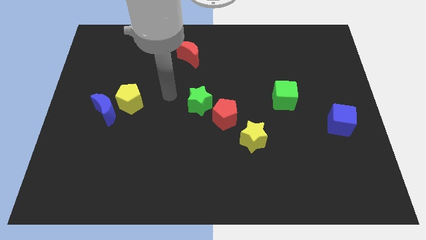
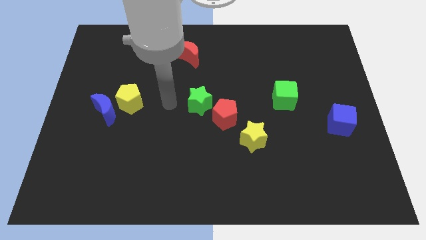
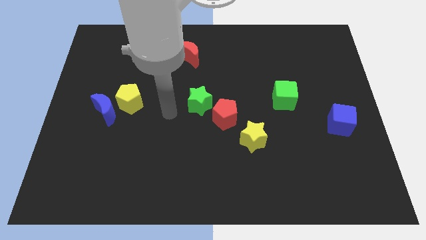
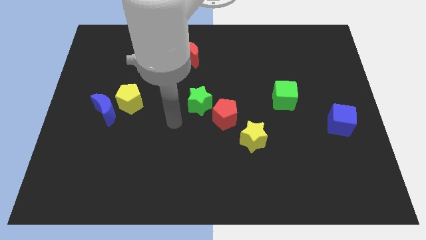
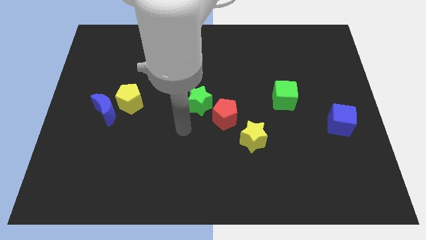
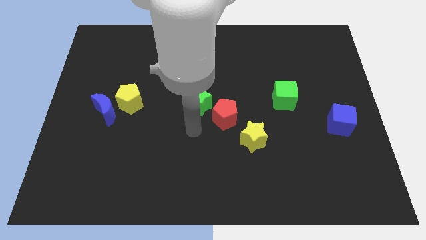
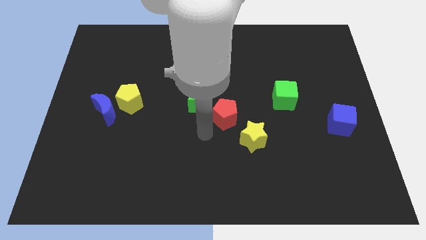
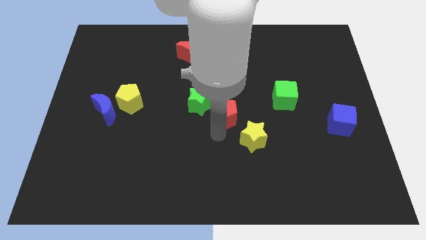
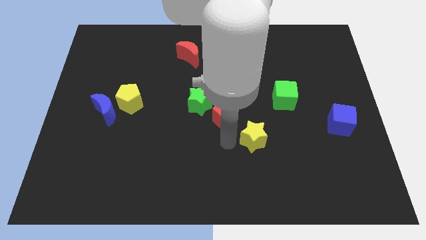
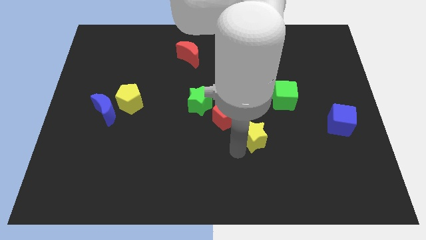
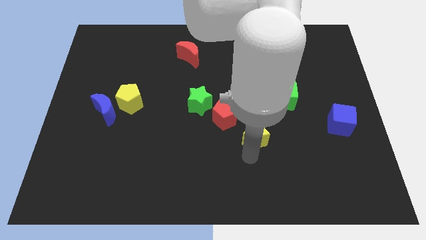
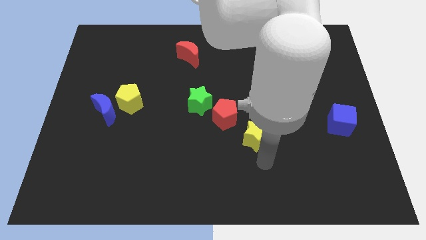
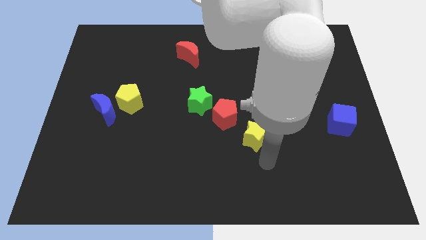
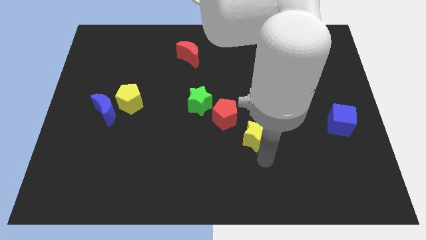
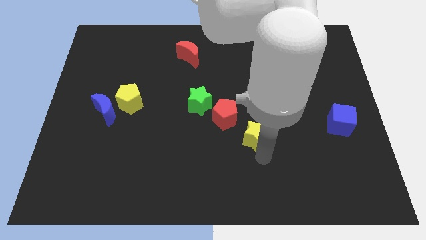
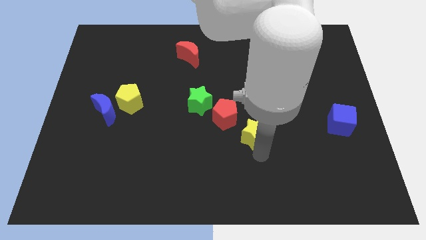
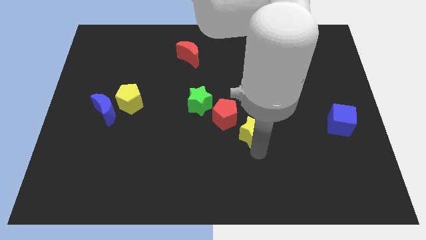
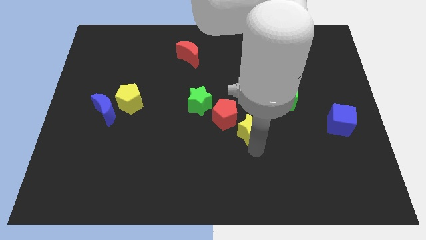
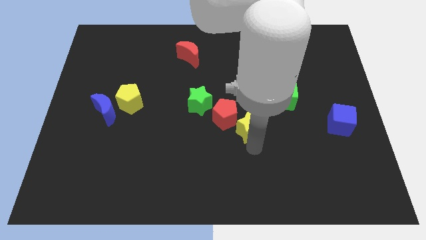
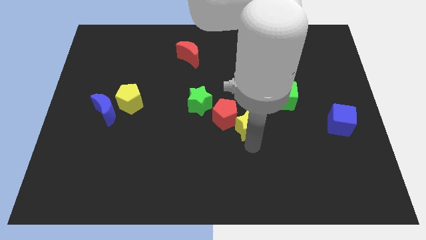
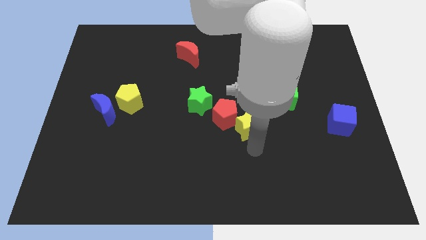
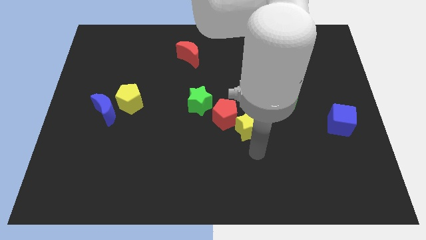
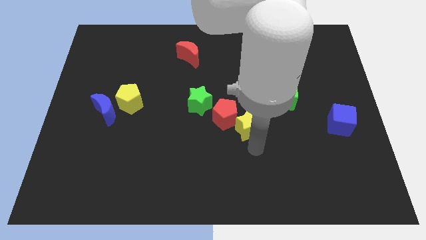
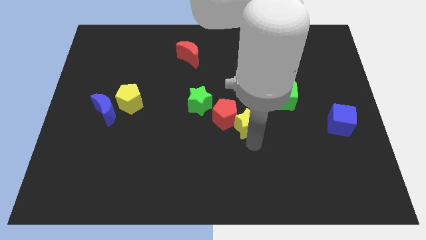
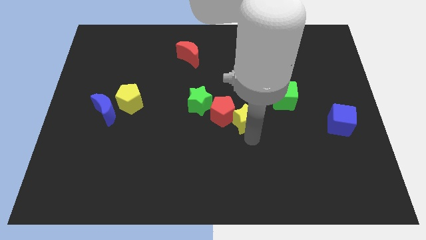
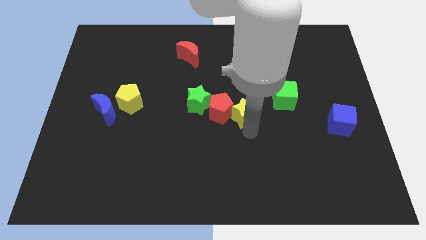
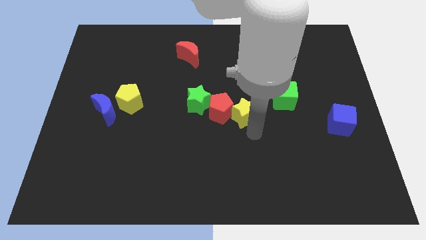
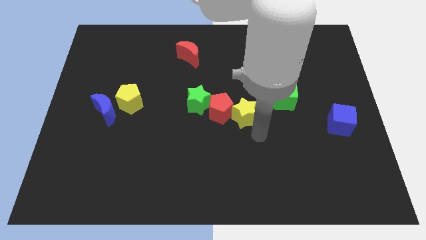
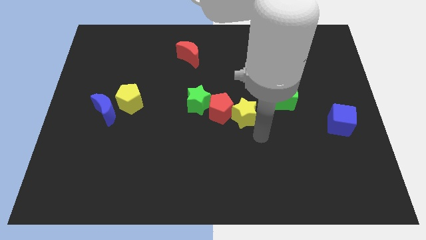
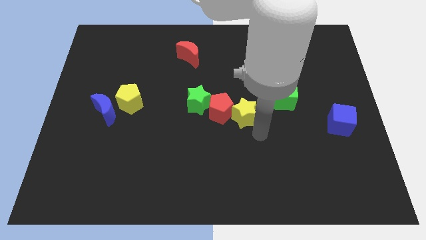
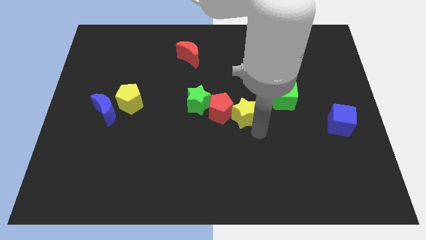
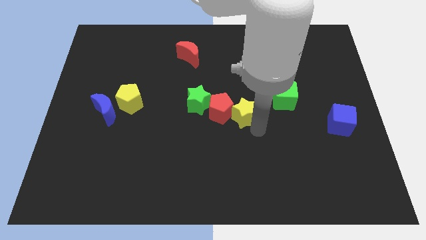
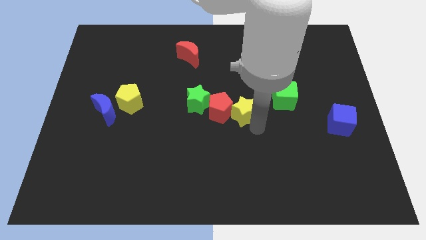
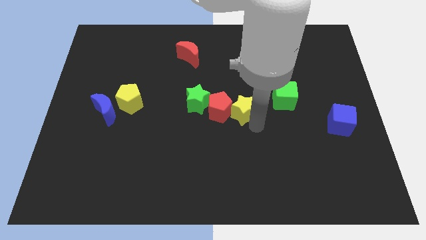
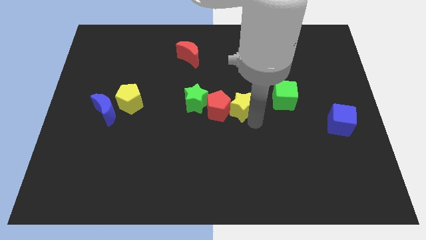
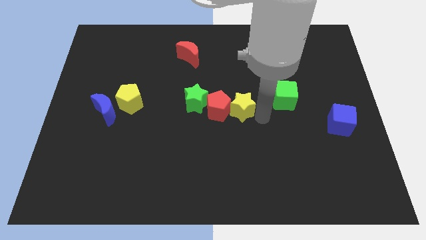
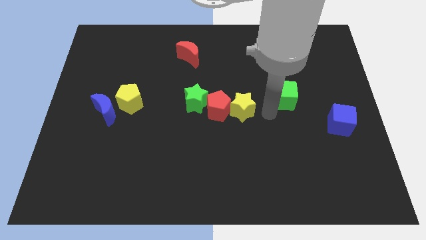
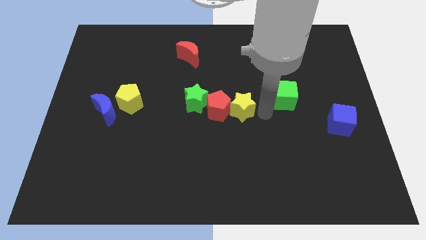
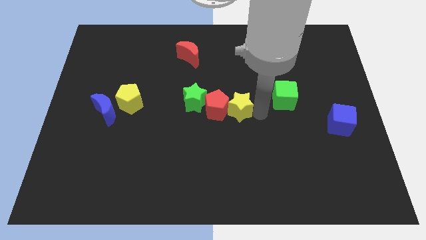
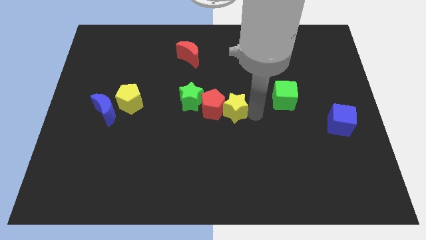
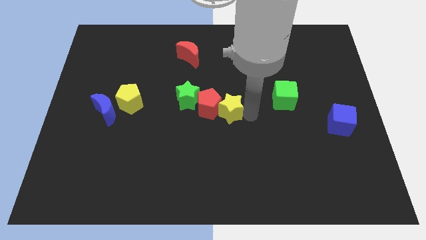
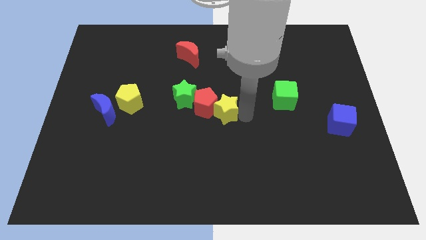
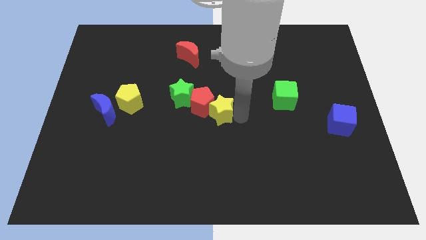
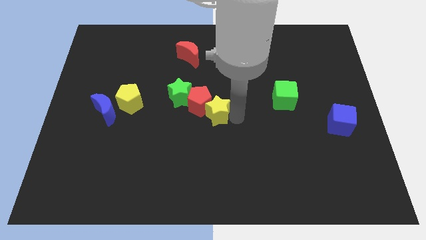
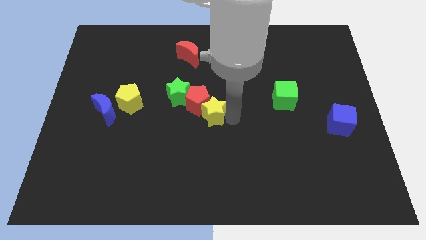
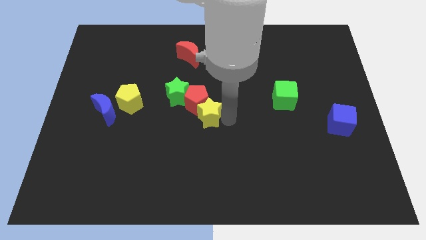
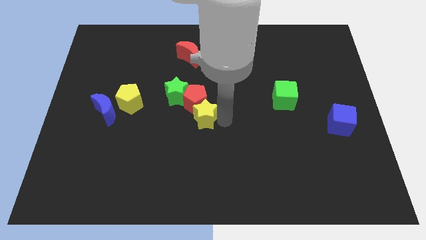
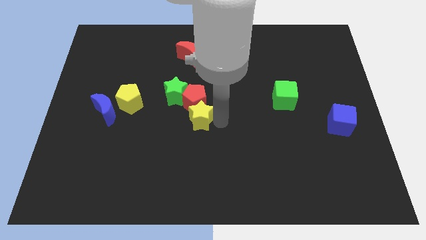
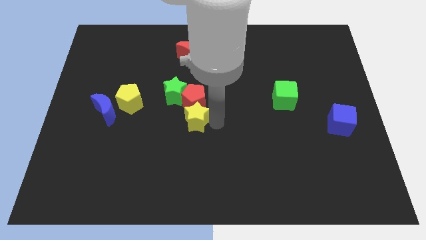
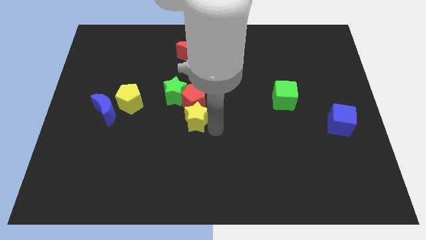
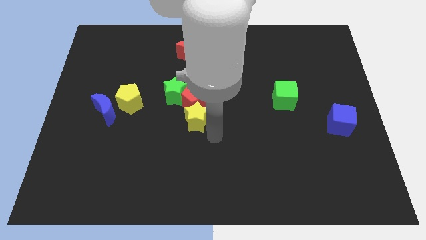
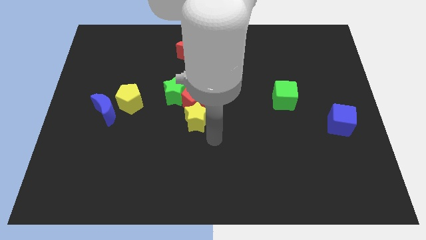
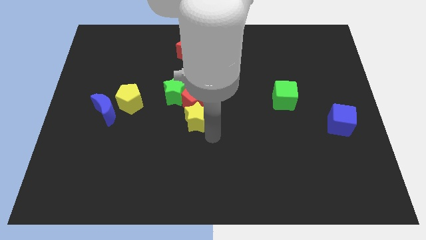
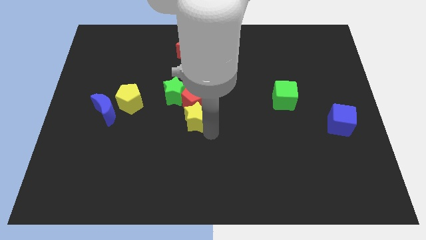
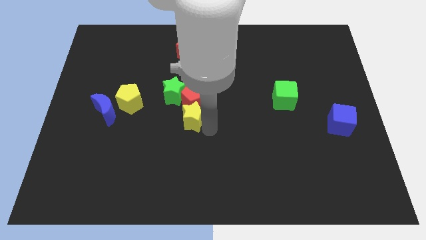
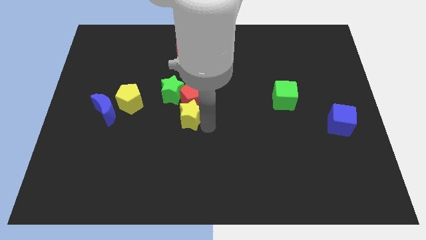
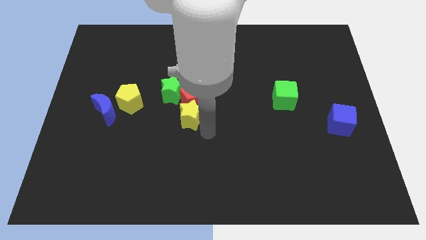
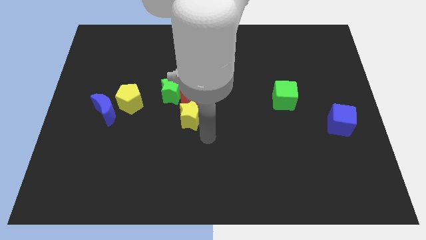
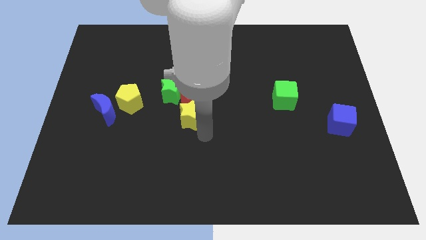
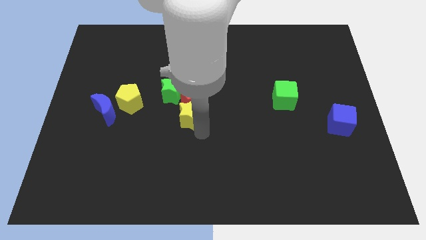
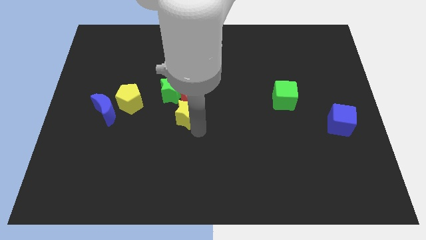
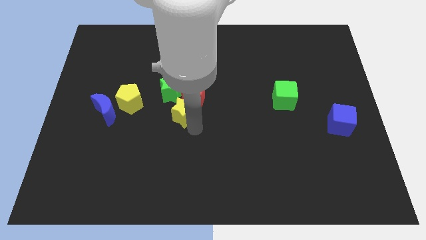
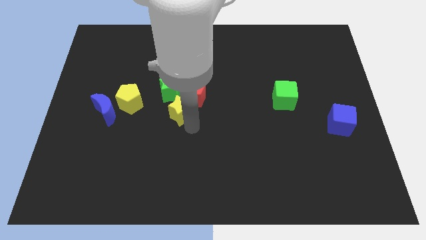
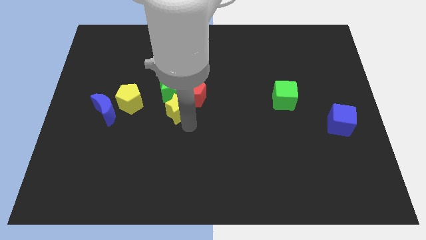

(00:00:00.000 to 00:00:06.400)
slide the yellow star to the green star

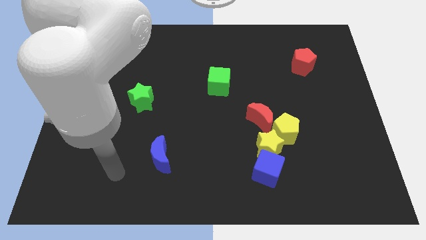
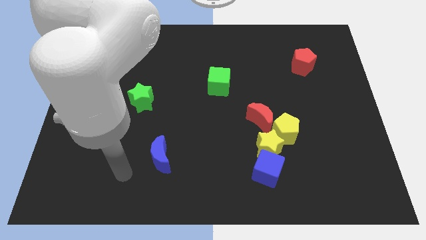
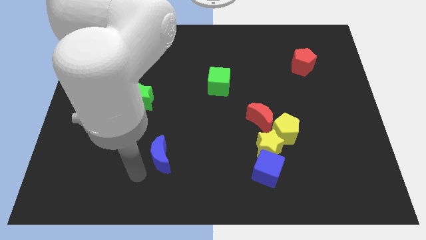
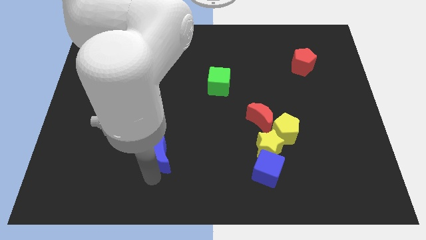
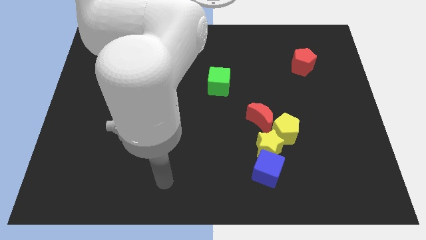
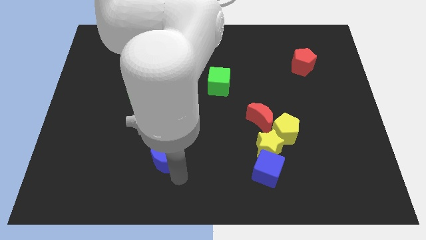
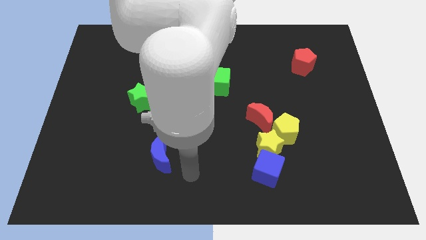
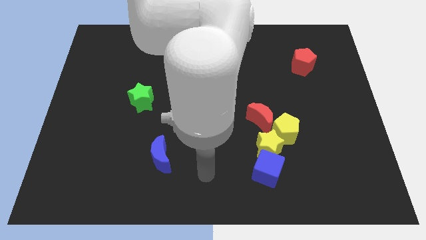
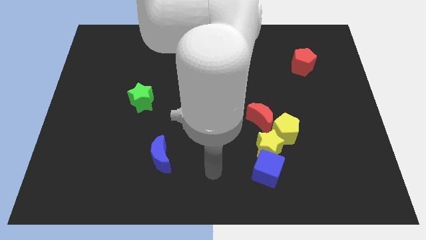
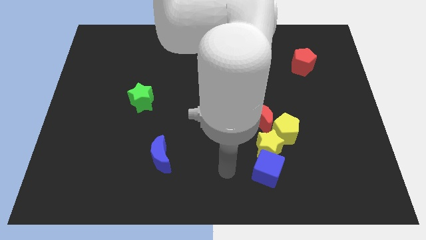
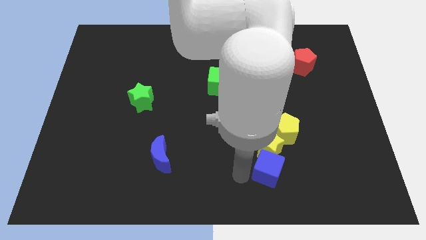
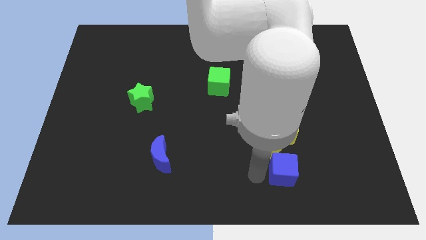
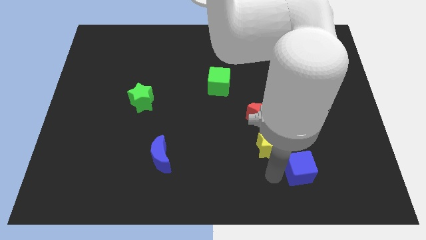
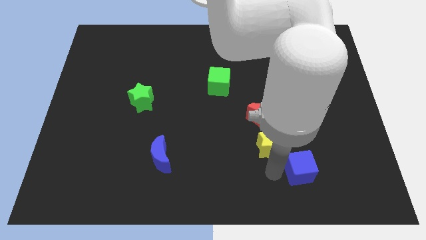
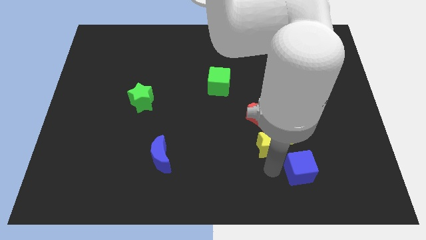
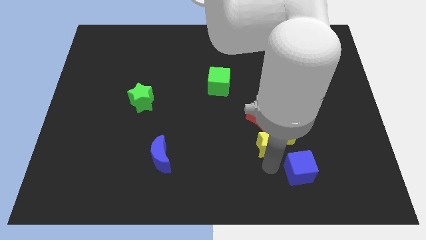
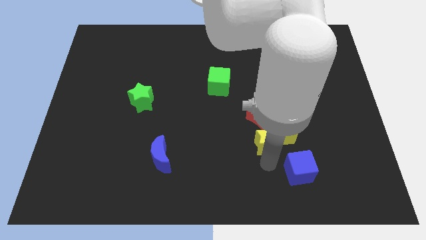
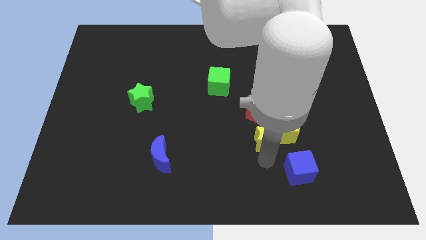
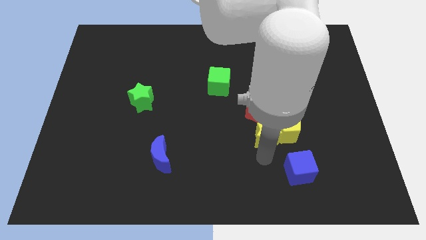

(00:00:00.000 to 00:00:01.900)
push the yellow star next to the red moon

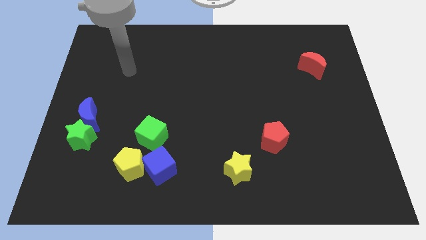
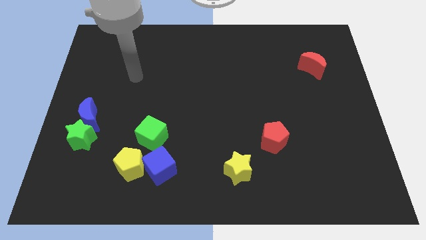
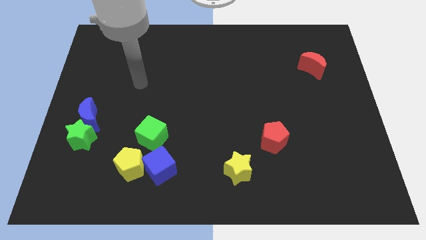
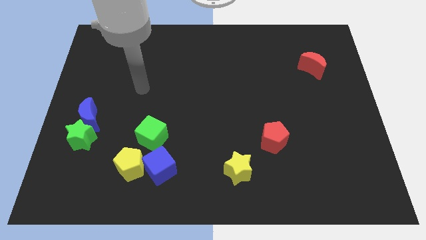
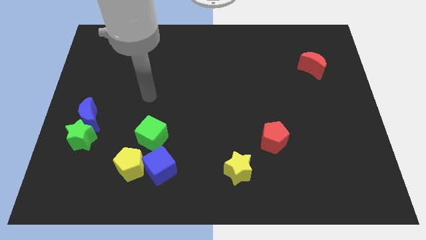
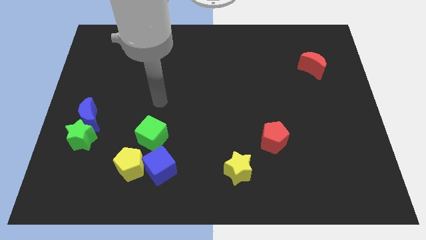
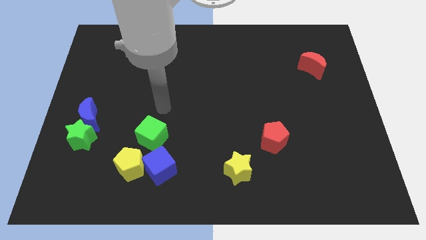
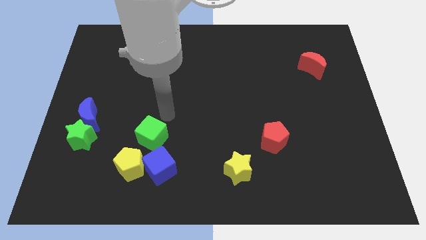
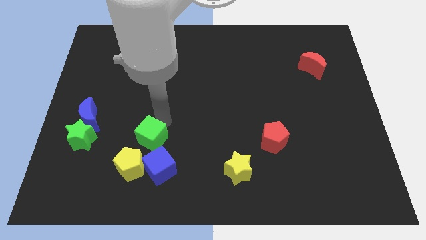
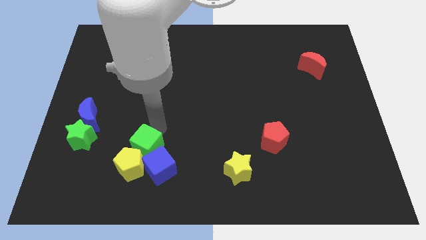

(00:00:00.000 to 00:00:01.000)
push the green cube next to the yellow pentagon
